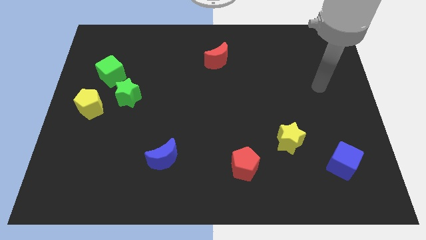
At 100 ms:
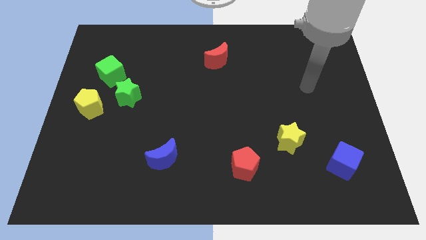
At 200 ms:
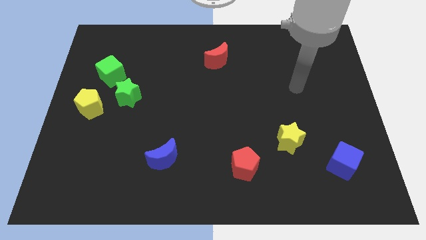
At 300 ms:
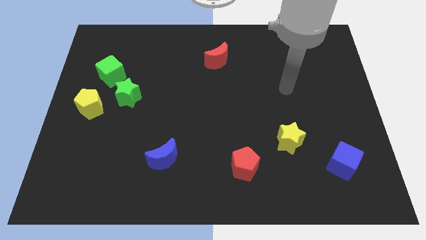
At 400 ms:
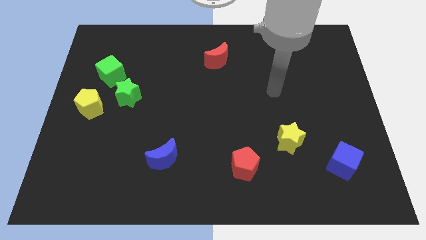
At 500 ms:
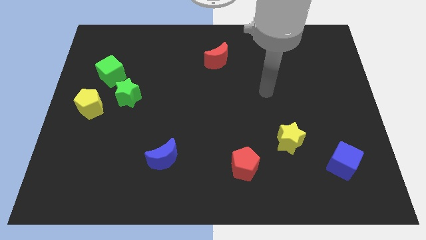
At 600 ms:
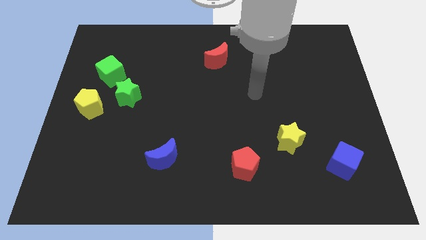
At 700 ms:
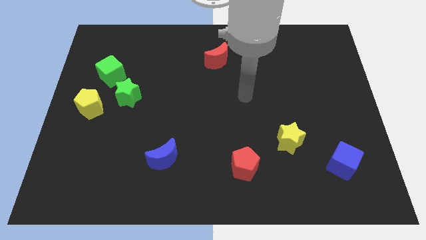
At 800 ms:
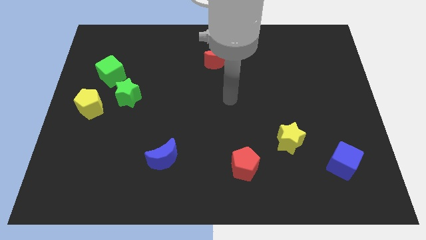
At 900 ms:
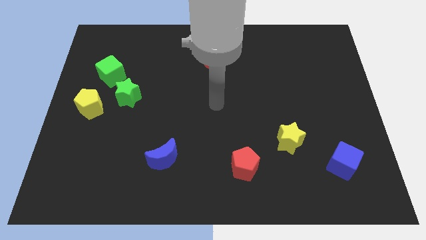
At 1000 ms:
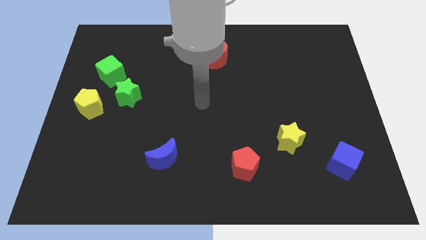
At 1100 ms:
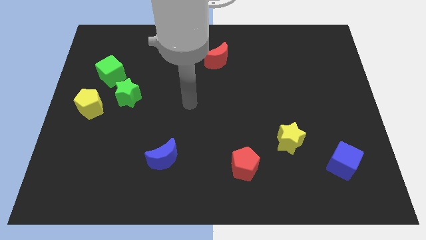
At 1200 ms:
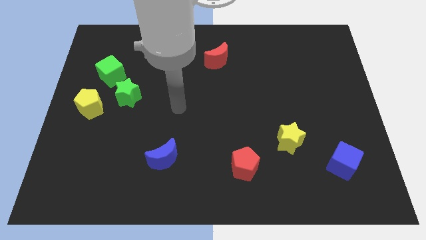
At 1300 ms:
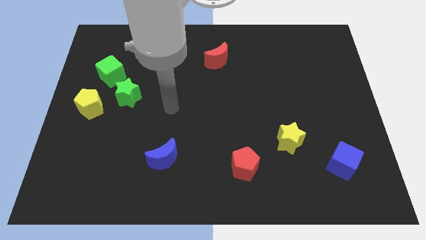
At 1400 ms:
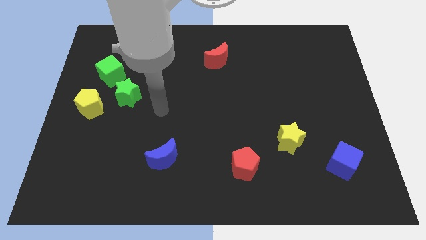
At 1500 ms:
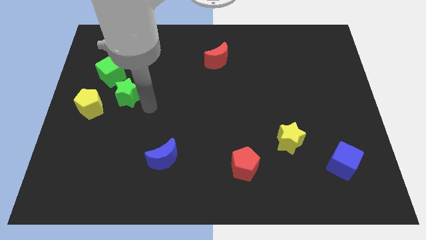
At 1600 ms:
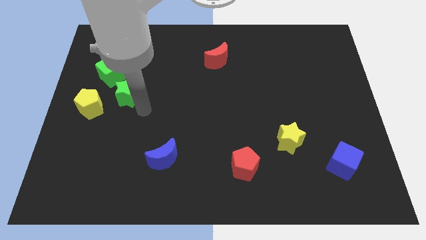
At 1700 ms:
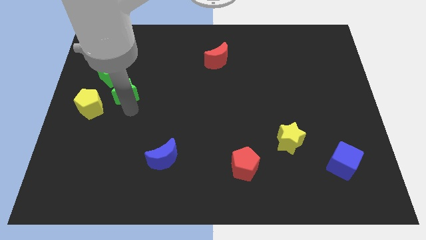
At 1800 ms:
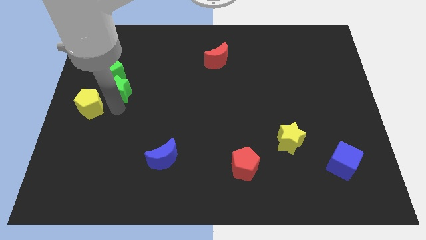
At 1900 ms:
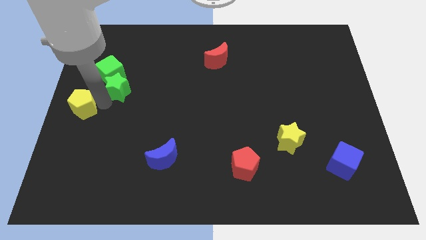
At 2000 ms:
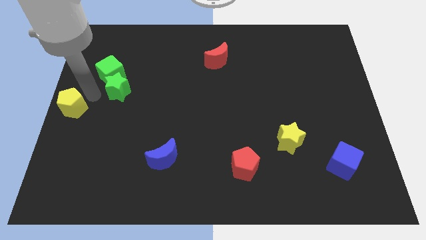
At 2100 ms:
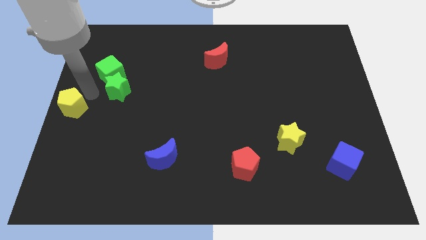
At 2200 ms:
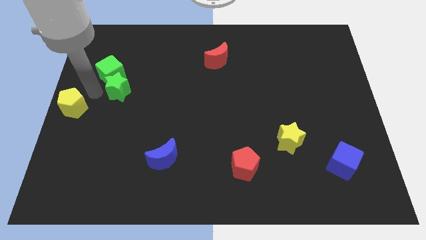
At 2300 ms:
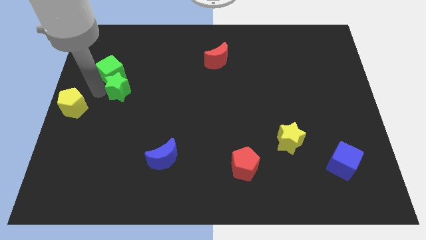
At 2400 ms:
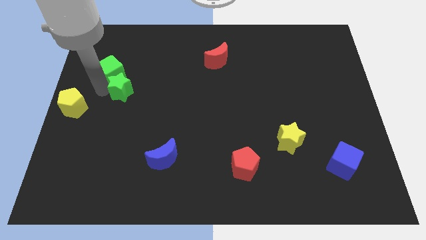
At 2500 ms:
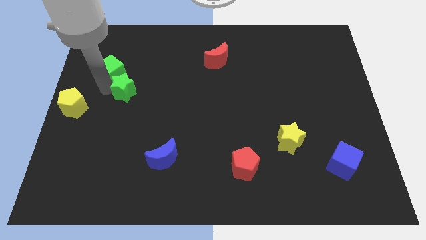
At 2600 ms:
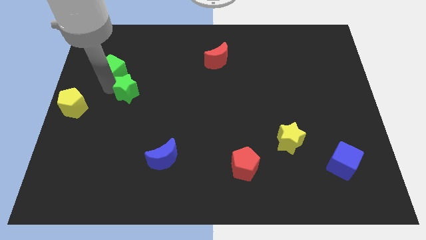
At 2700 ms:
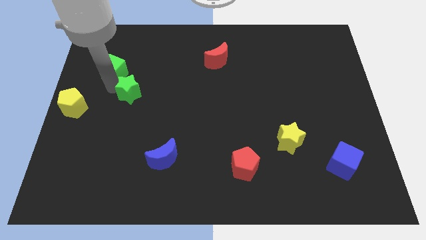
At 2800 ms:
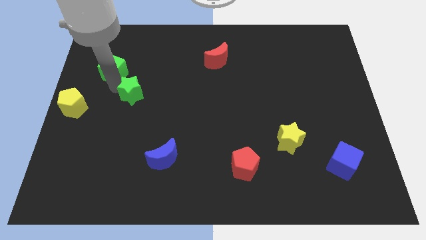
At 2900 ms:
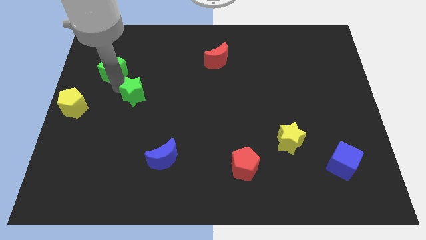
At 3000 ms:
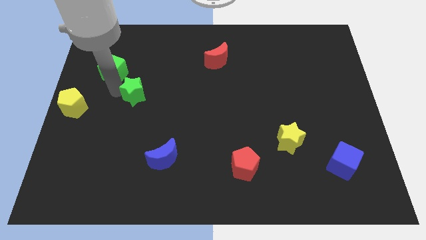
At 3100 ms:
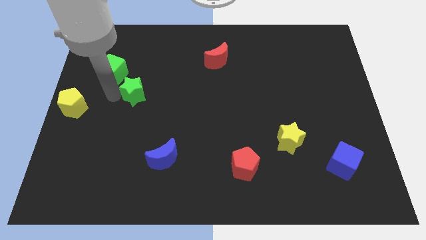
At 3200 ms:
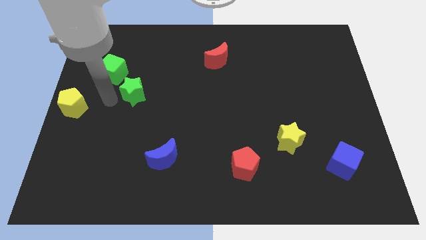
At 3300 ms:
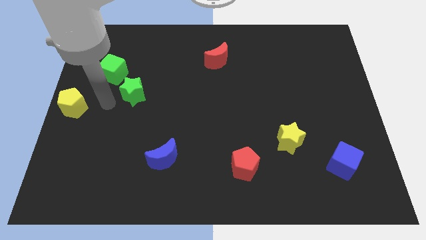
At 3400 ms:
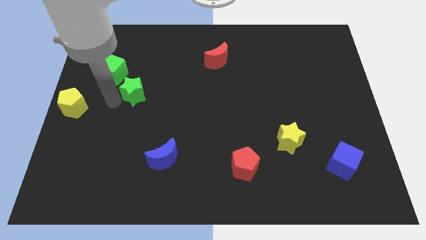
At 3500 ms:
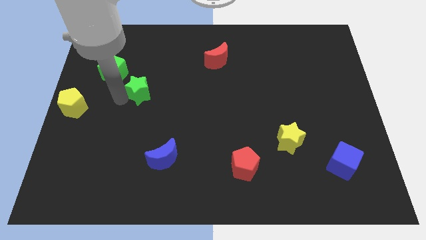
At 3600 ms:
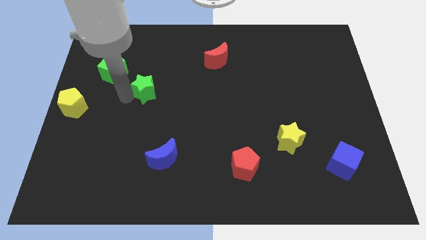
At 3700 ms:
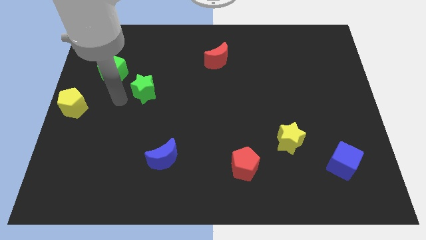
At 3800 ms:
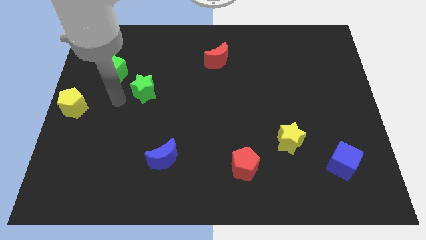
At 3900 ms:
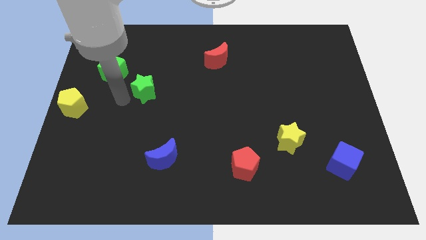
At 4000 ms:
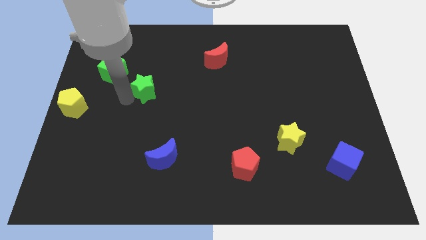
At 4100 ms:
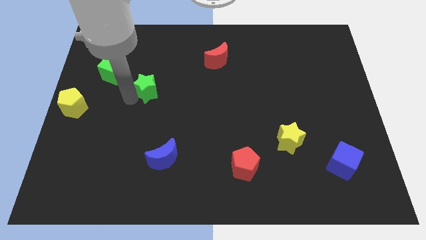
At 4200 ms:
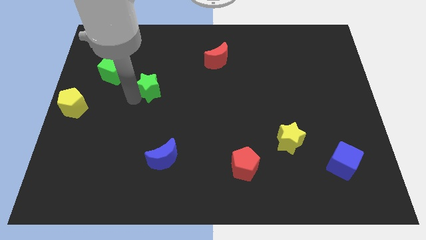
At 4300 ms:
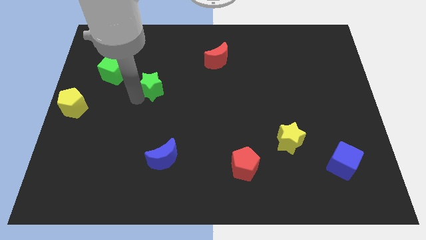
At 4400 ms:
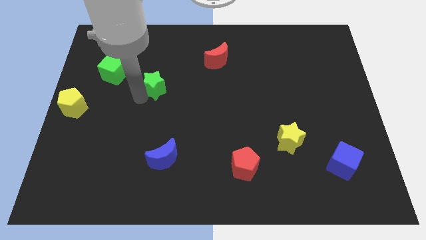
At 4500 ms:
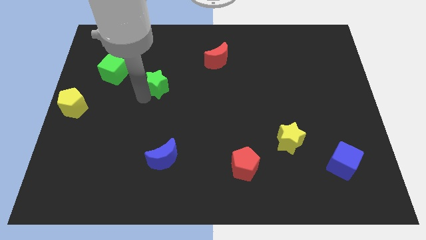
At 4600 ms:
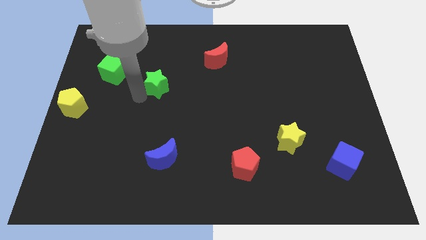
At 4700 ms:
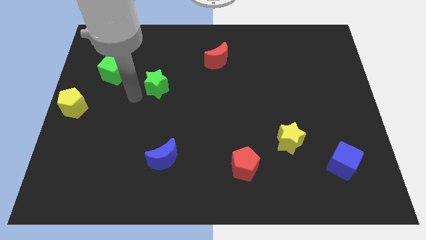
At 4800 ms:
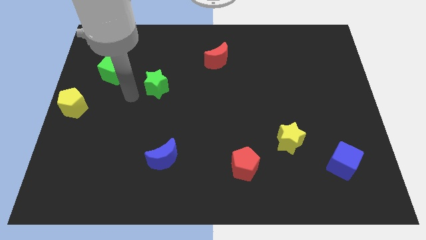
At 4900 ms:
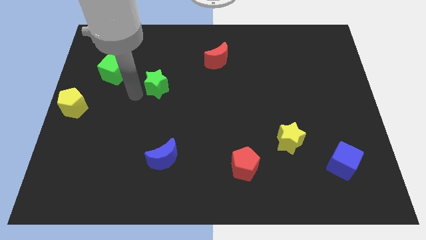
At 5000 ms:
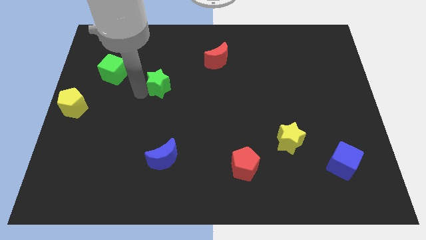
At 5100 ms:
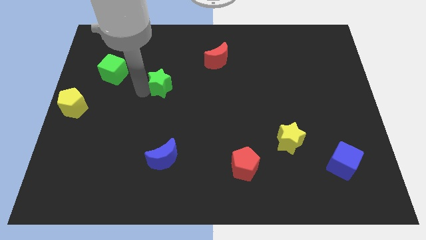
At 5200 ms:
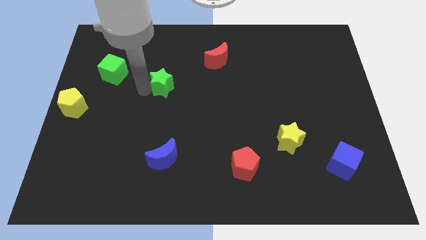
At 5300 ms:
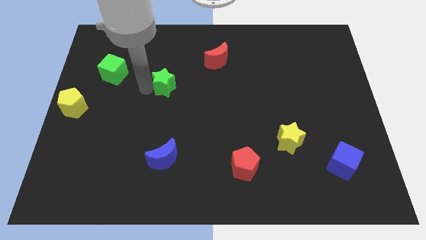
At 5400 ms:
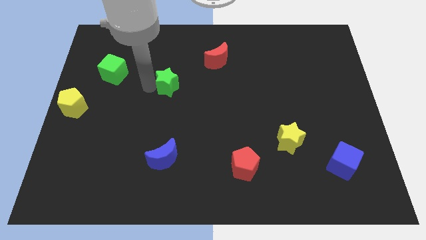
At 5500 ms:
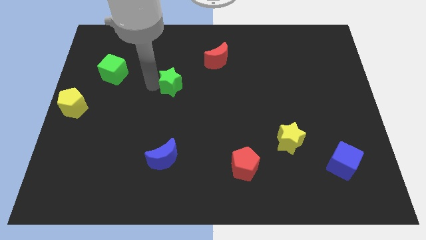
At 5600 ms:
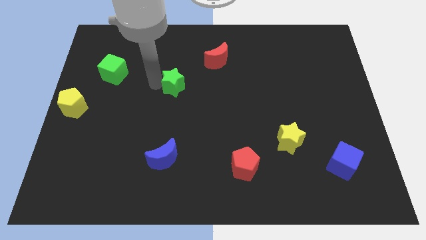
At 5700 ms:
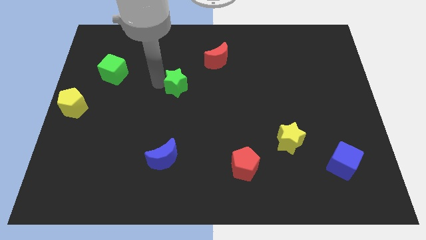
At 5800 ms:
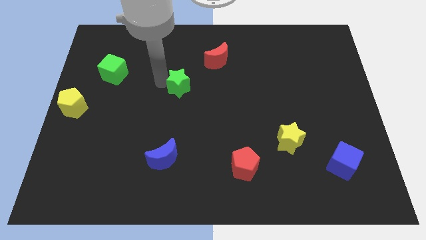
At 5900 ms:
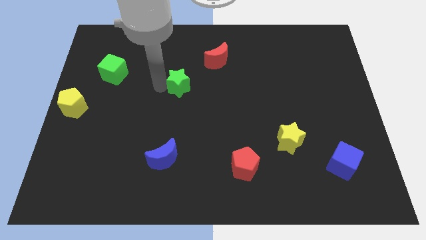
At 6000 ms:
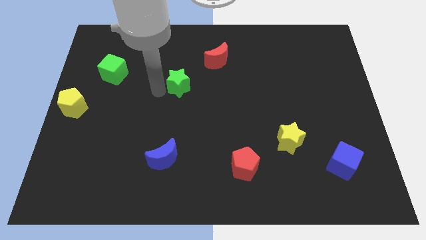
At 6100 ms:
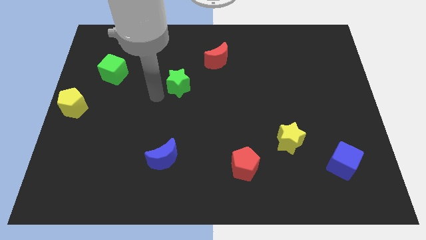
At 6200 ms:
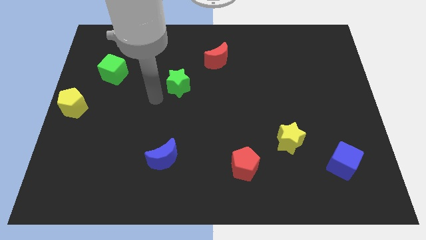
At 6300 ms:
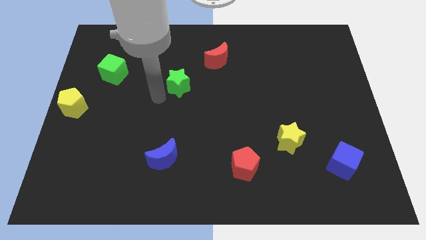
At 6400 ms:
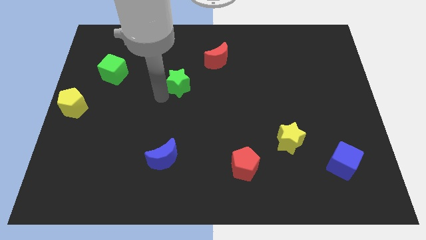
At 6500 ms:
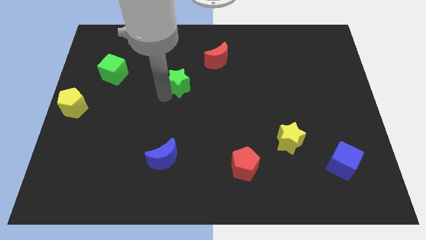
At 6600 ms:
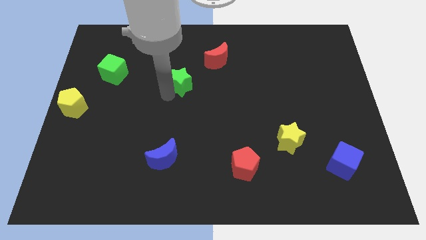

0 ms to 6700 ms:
move the green star to the bottom left of the red moon

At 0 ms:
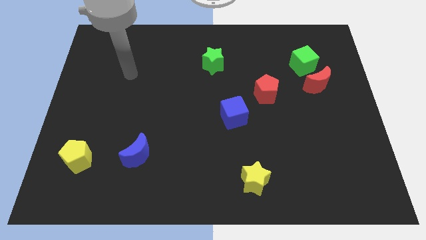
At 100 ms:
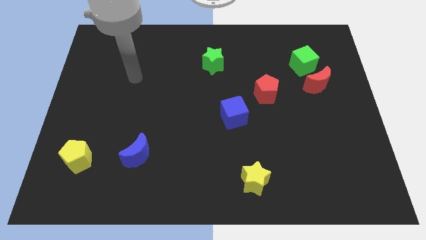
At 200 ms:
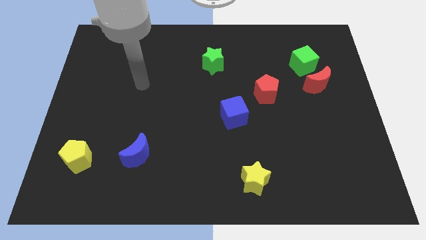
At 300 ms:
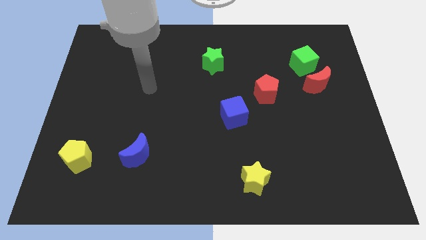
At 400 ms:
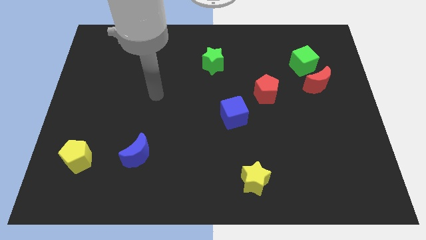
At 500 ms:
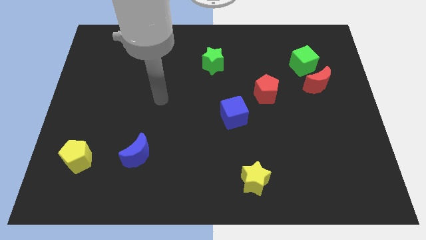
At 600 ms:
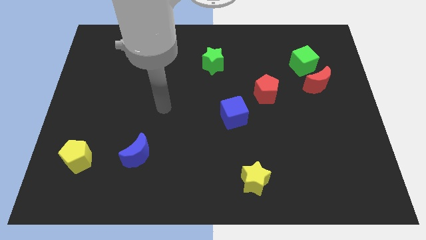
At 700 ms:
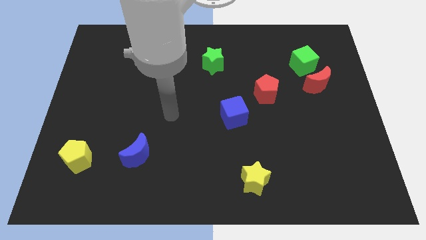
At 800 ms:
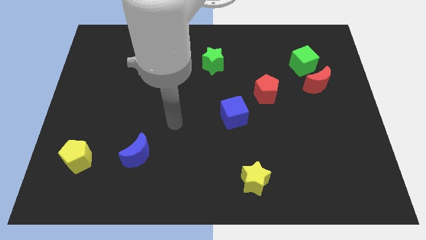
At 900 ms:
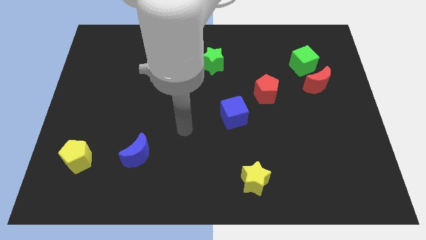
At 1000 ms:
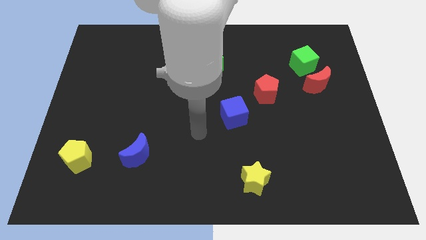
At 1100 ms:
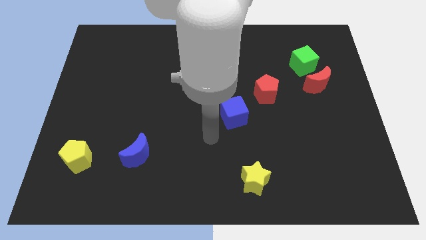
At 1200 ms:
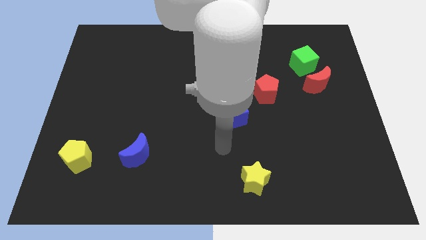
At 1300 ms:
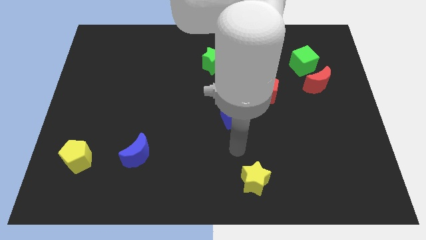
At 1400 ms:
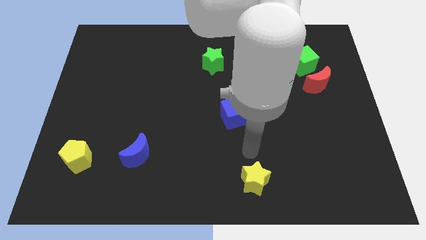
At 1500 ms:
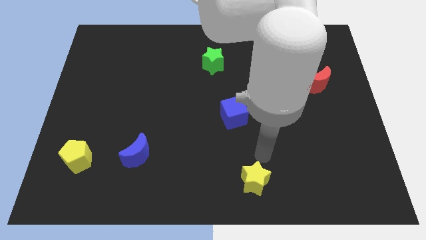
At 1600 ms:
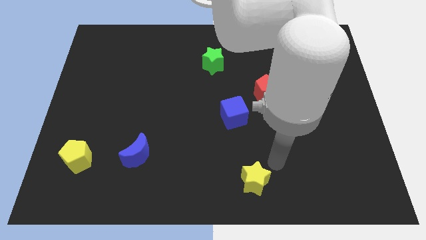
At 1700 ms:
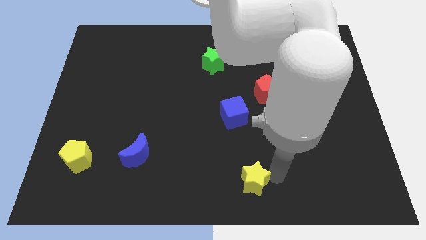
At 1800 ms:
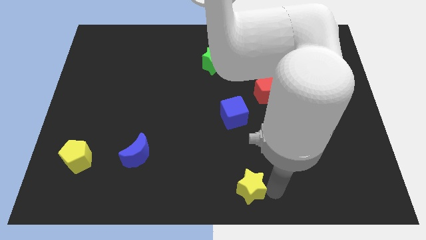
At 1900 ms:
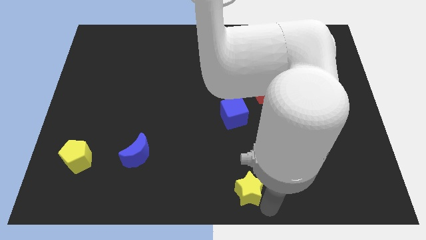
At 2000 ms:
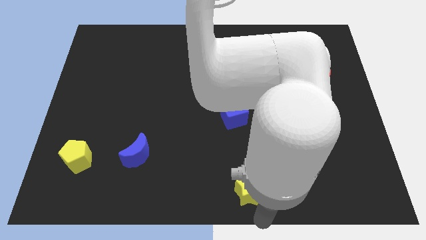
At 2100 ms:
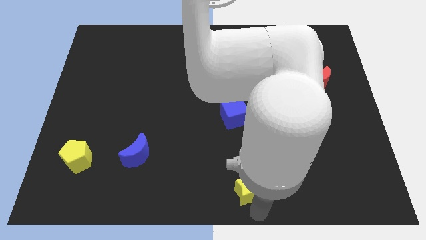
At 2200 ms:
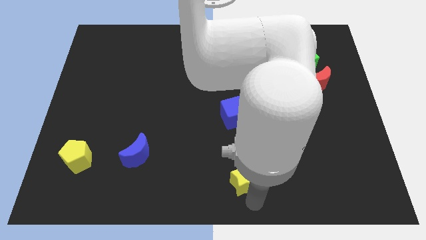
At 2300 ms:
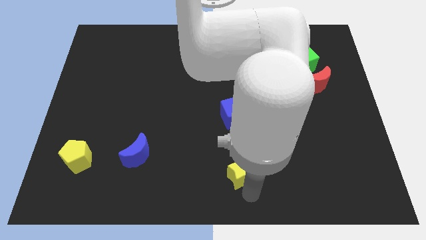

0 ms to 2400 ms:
put the yellow star to the bottom of the blue cube
